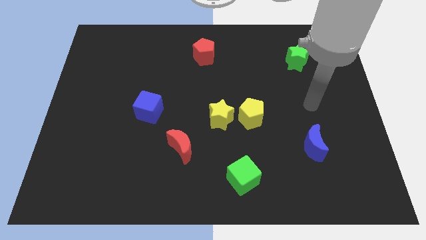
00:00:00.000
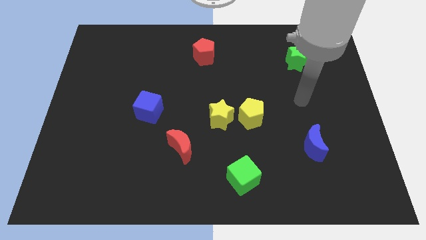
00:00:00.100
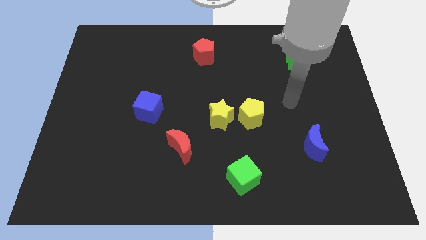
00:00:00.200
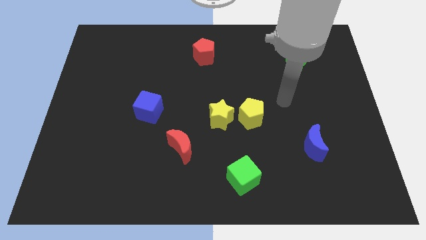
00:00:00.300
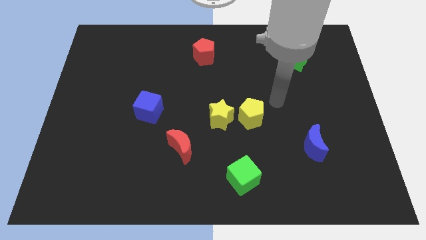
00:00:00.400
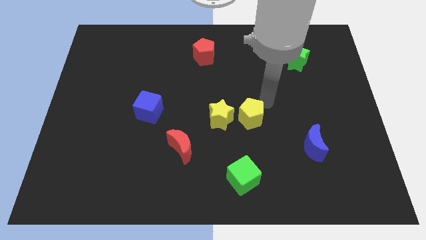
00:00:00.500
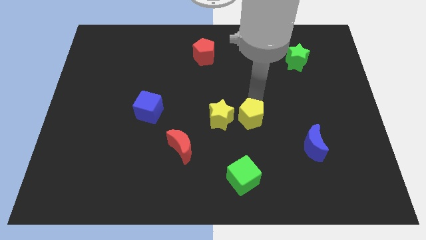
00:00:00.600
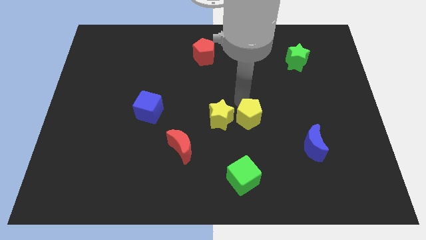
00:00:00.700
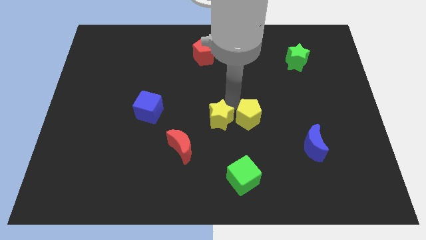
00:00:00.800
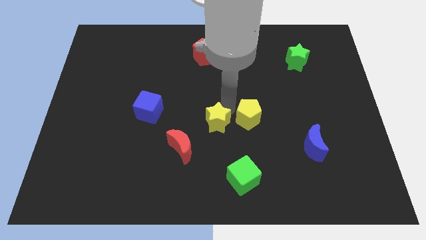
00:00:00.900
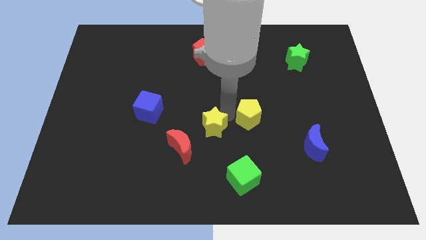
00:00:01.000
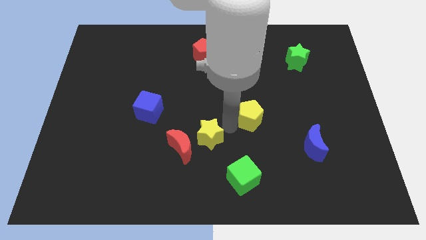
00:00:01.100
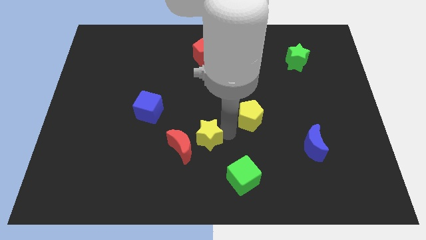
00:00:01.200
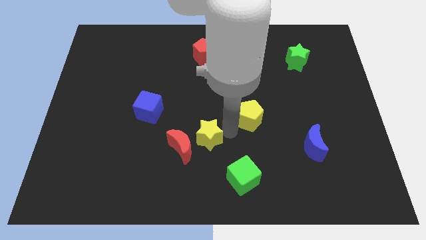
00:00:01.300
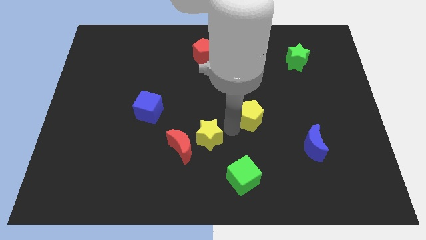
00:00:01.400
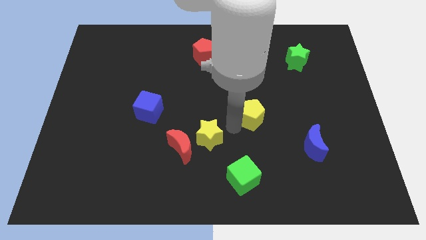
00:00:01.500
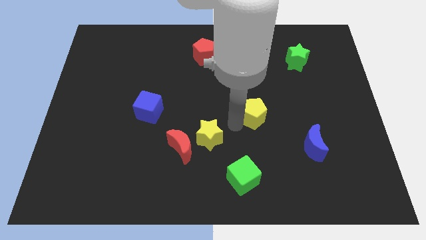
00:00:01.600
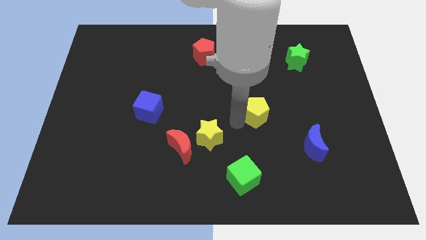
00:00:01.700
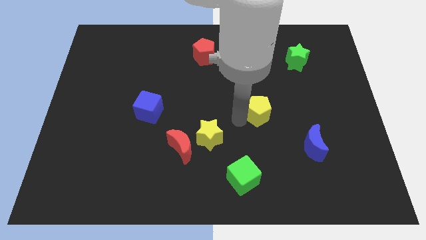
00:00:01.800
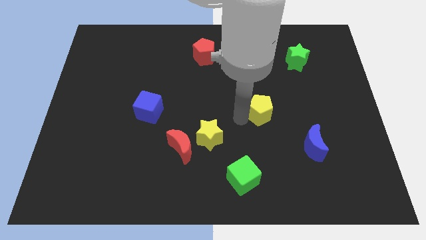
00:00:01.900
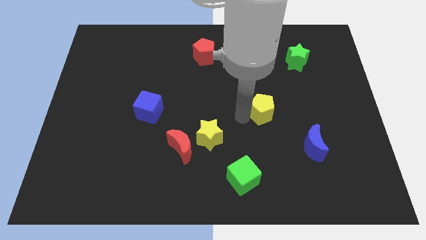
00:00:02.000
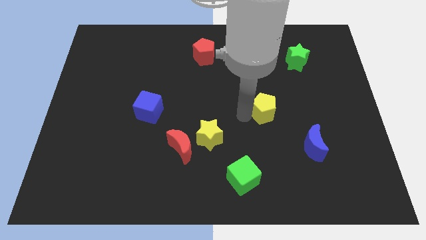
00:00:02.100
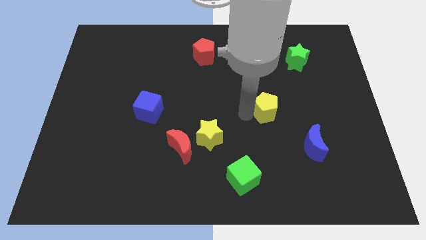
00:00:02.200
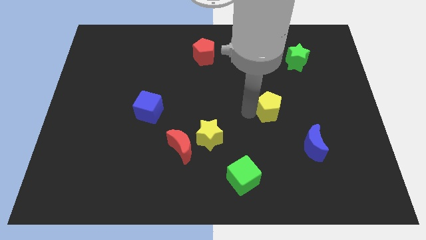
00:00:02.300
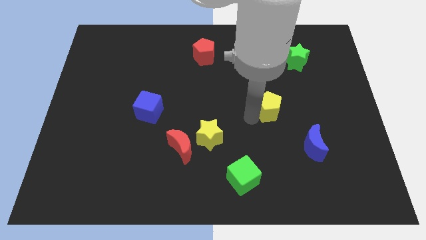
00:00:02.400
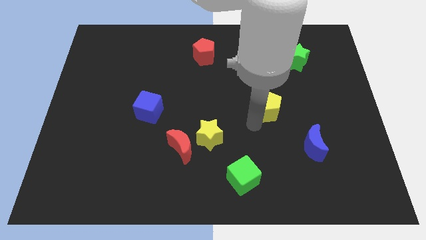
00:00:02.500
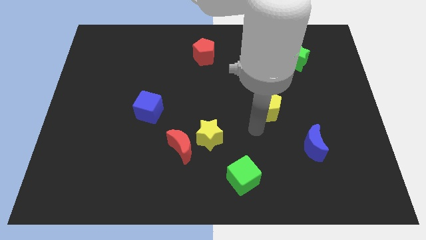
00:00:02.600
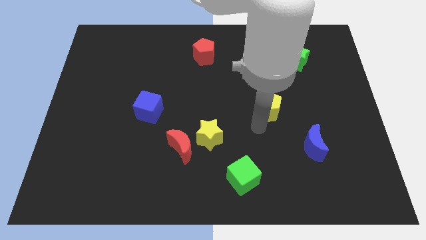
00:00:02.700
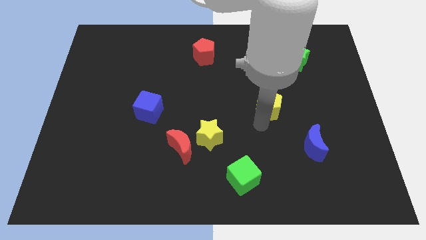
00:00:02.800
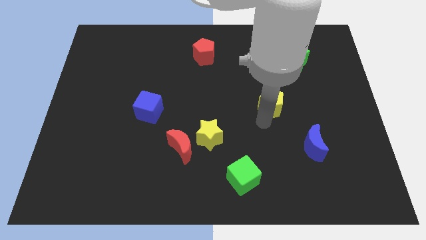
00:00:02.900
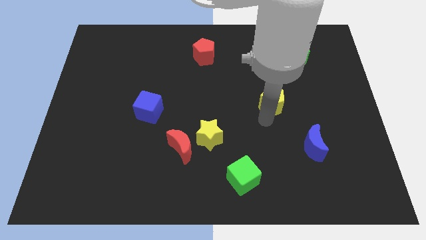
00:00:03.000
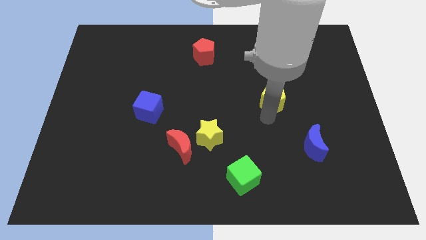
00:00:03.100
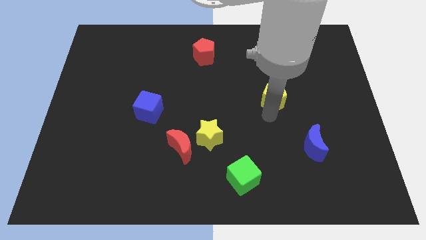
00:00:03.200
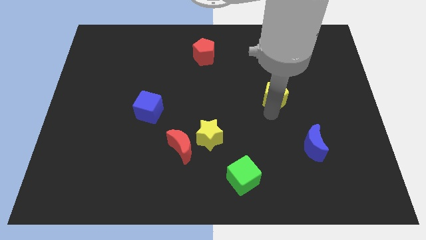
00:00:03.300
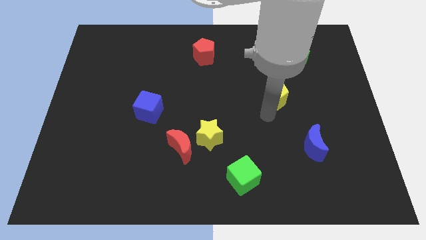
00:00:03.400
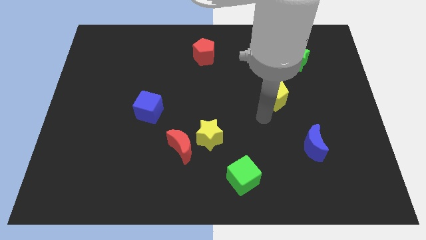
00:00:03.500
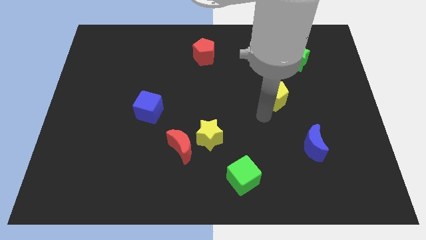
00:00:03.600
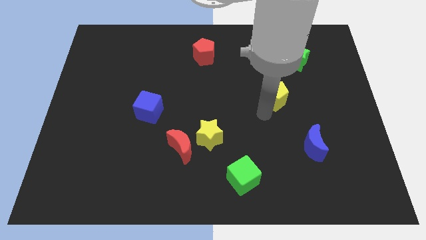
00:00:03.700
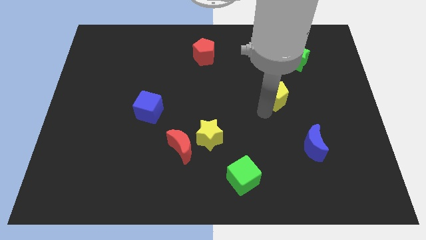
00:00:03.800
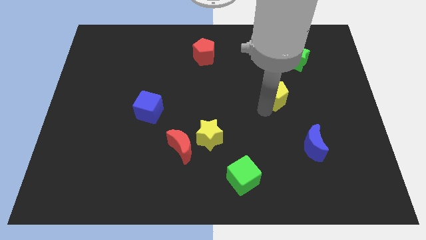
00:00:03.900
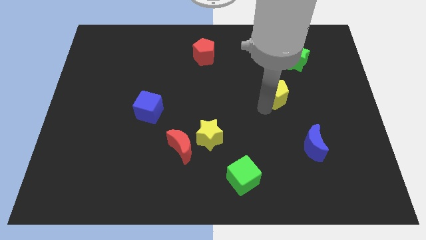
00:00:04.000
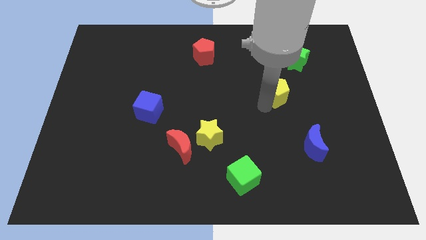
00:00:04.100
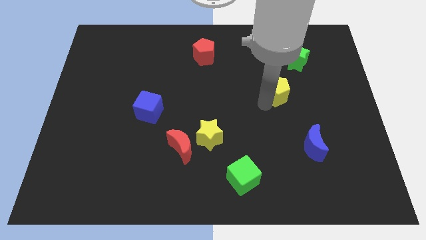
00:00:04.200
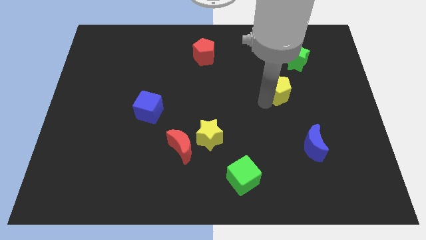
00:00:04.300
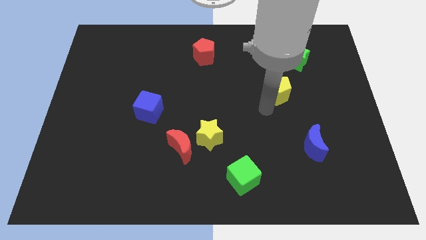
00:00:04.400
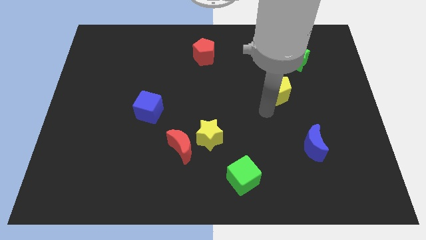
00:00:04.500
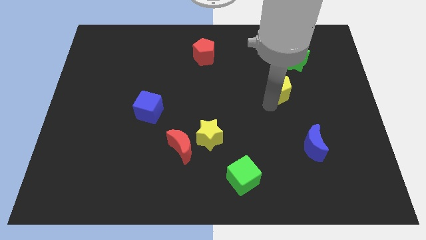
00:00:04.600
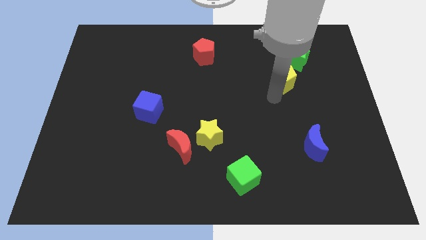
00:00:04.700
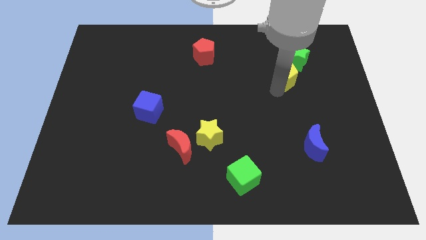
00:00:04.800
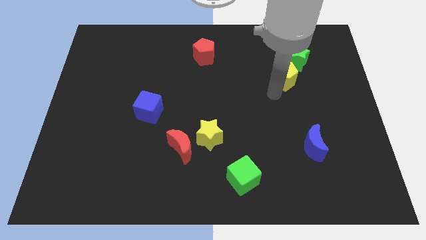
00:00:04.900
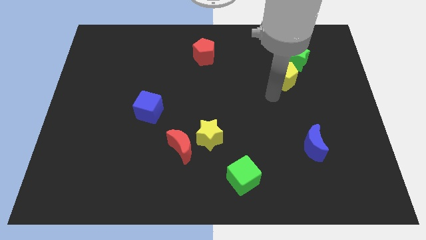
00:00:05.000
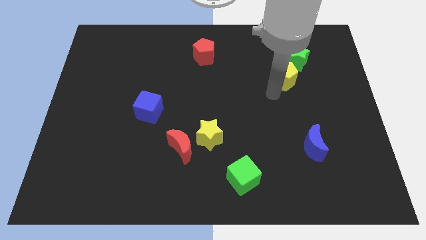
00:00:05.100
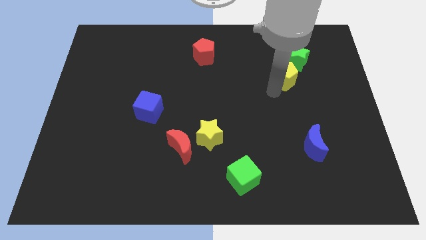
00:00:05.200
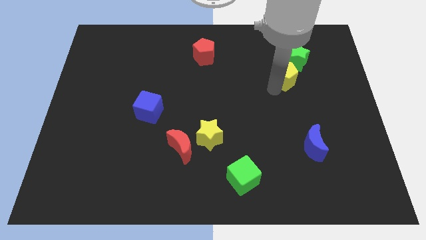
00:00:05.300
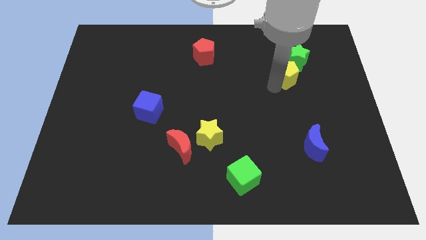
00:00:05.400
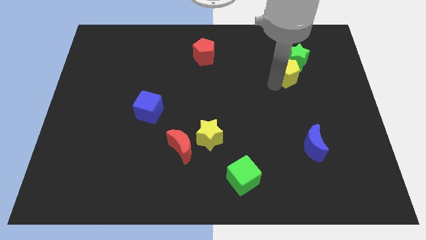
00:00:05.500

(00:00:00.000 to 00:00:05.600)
put the yellow pentagon towards the green star
